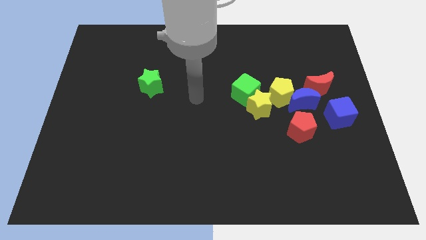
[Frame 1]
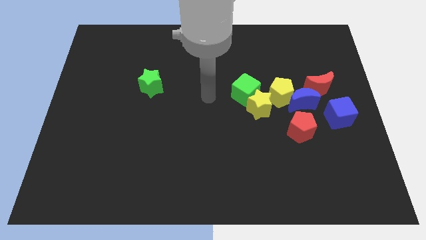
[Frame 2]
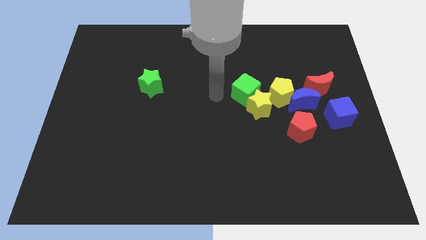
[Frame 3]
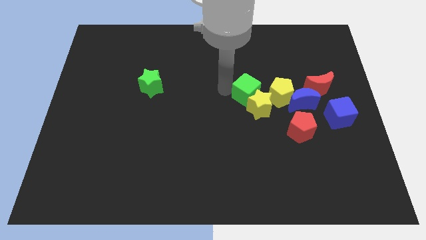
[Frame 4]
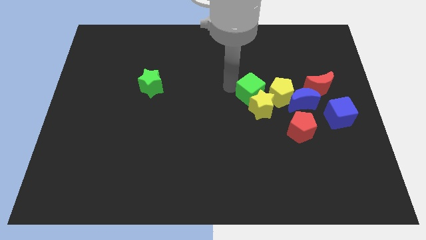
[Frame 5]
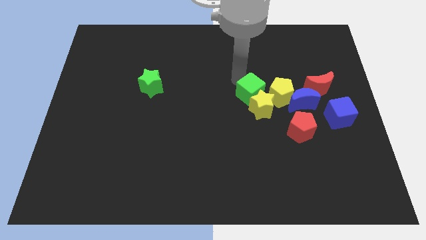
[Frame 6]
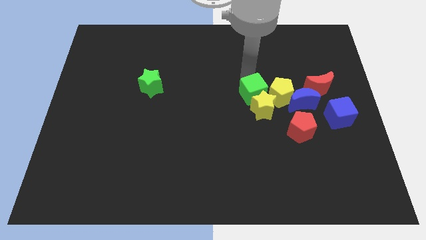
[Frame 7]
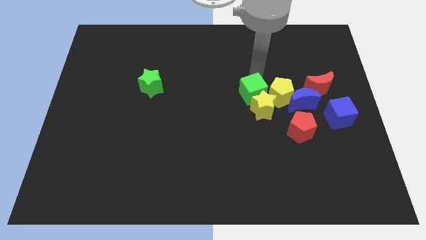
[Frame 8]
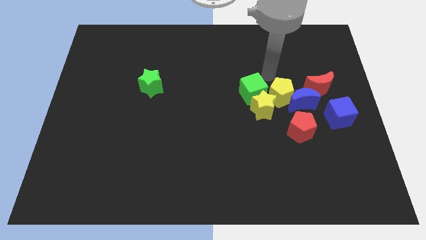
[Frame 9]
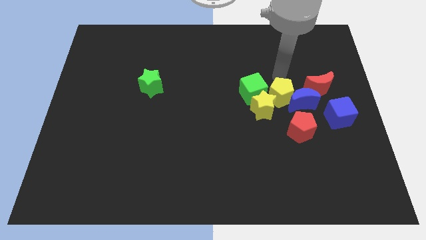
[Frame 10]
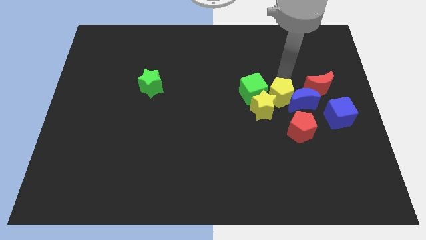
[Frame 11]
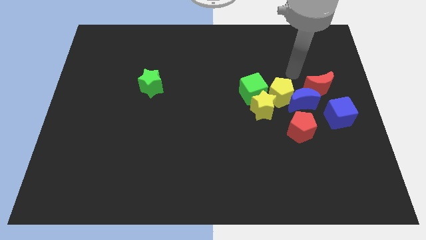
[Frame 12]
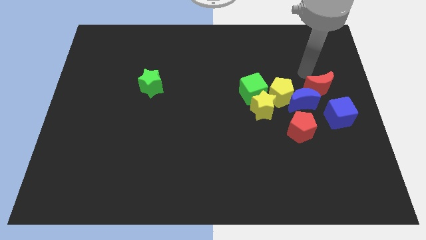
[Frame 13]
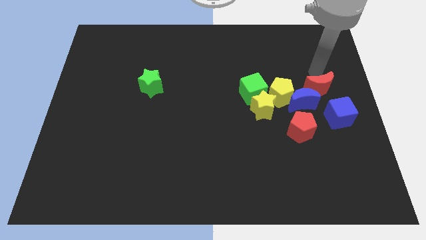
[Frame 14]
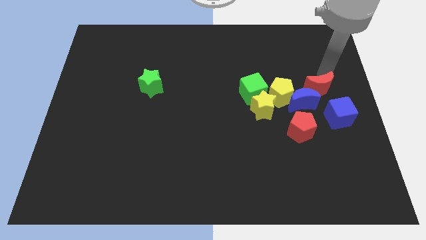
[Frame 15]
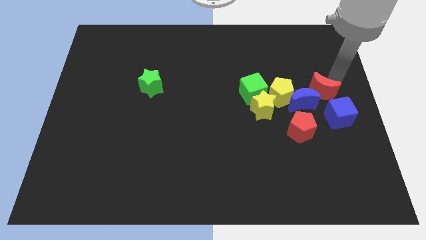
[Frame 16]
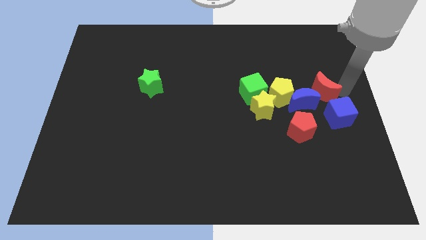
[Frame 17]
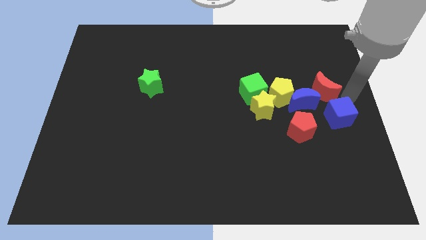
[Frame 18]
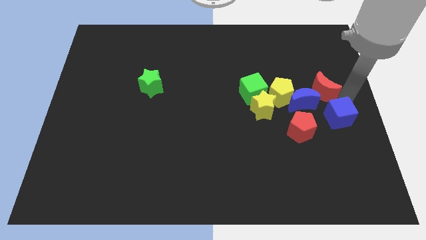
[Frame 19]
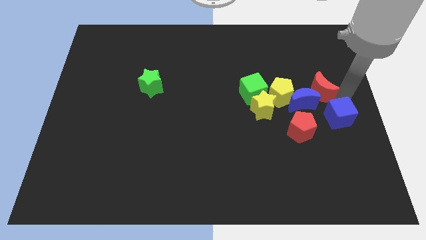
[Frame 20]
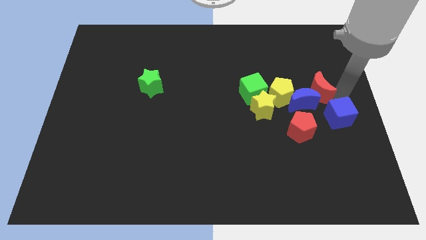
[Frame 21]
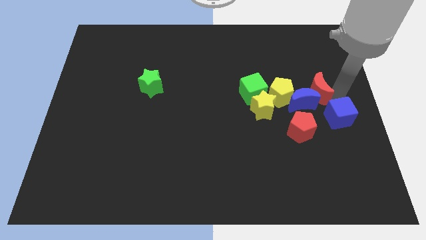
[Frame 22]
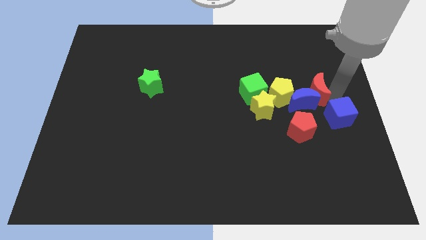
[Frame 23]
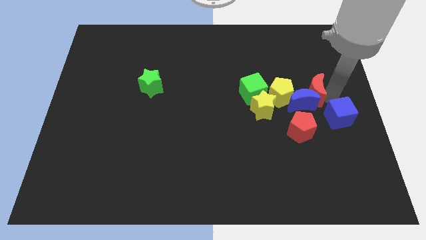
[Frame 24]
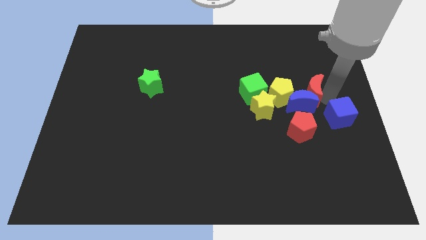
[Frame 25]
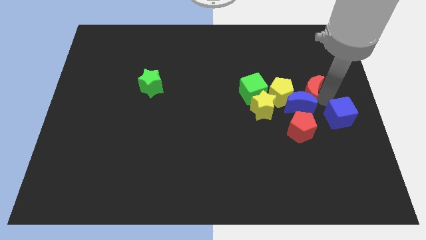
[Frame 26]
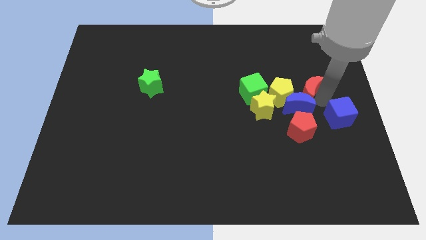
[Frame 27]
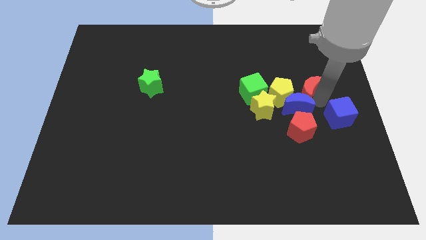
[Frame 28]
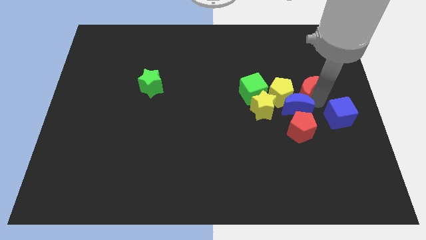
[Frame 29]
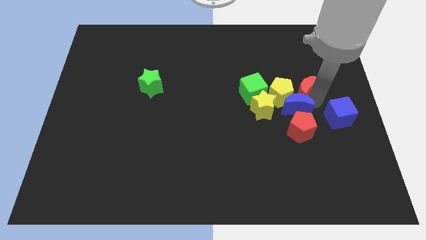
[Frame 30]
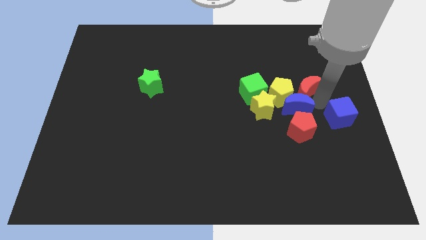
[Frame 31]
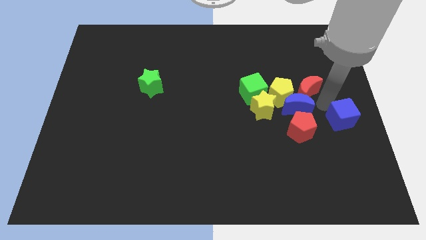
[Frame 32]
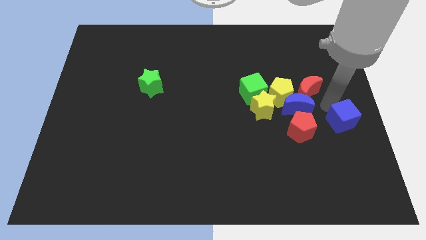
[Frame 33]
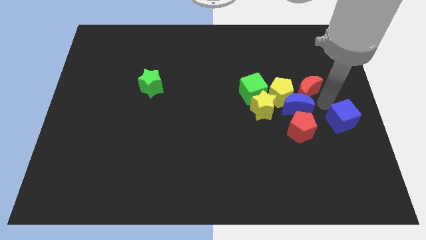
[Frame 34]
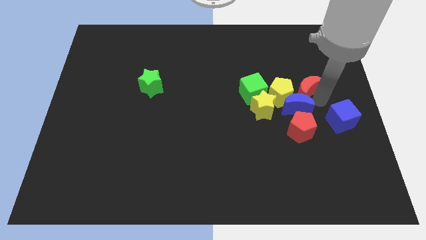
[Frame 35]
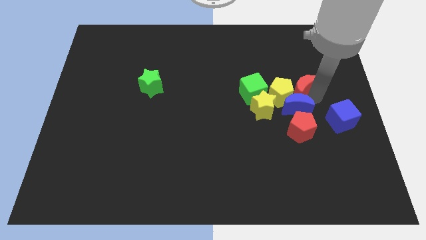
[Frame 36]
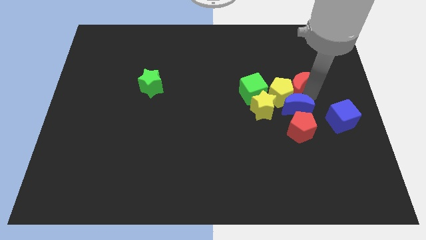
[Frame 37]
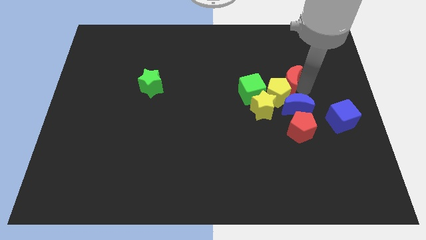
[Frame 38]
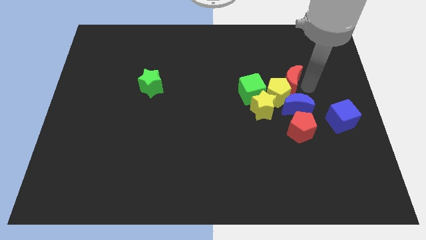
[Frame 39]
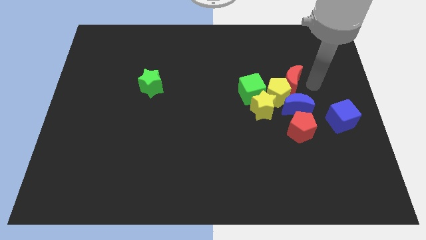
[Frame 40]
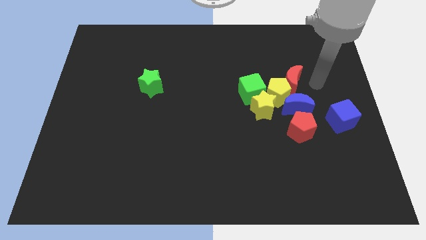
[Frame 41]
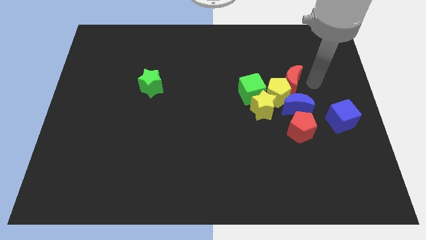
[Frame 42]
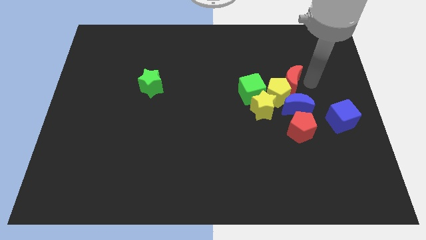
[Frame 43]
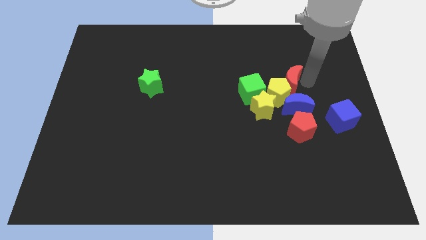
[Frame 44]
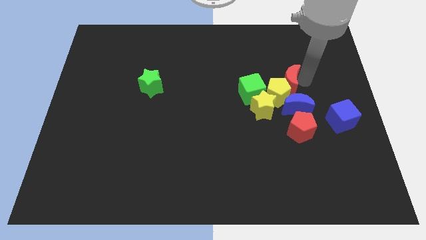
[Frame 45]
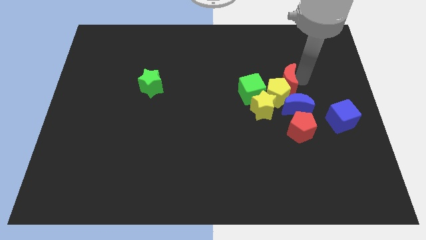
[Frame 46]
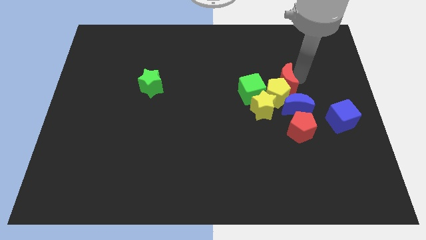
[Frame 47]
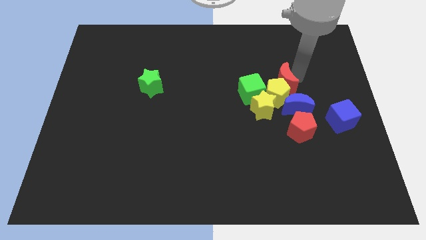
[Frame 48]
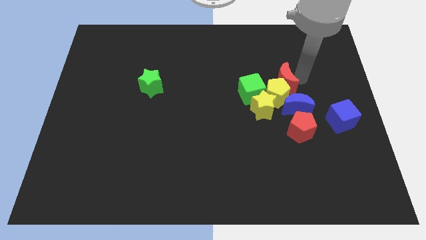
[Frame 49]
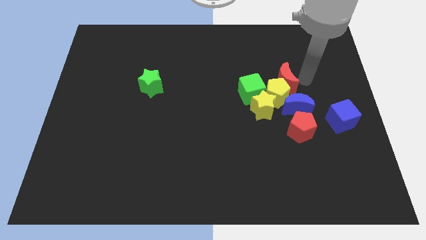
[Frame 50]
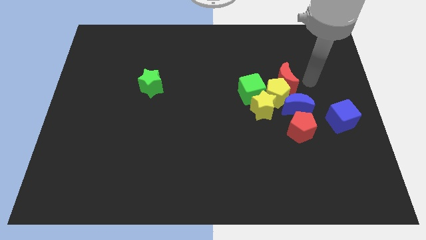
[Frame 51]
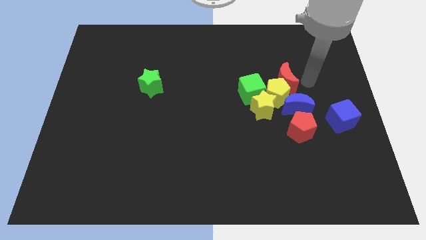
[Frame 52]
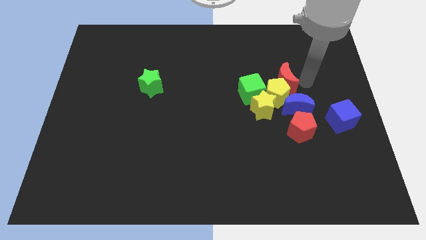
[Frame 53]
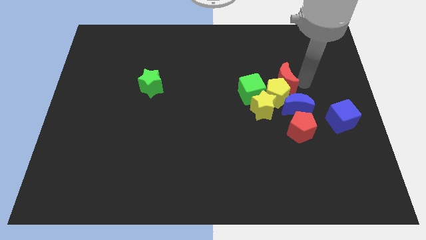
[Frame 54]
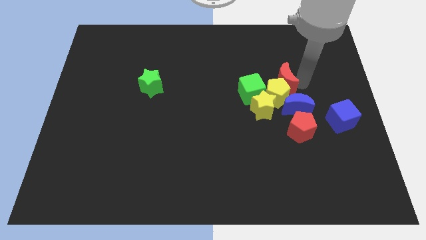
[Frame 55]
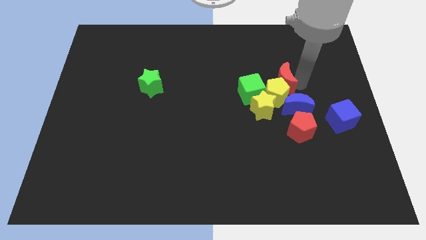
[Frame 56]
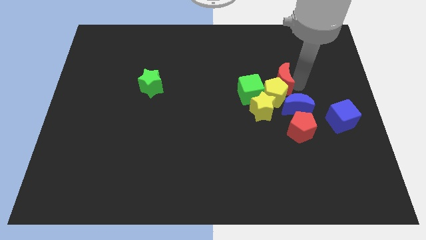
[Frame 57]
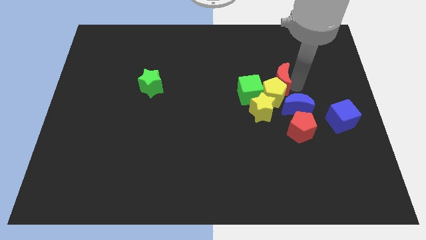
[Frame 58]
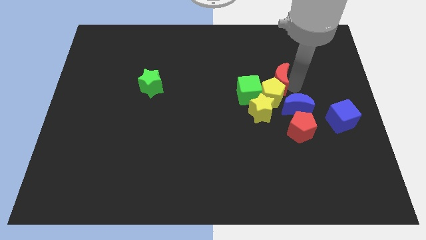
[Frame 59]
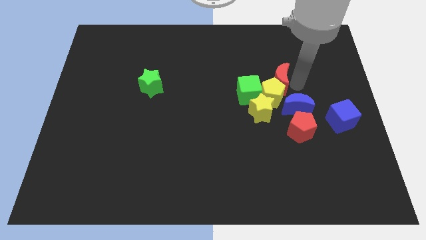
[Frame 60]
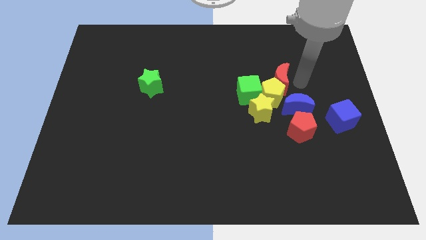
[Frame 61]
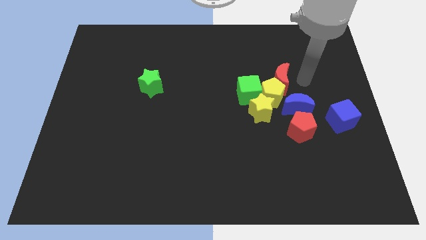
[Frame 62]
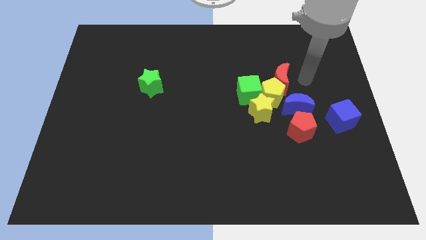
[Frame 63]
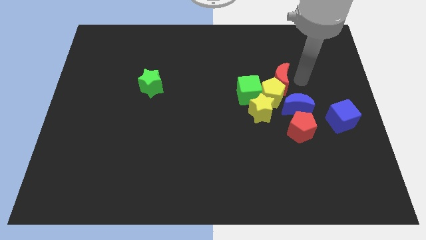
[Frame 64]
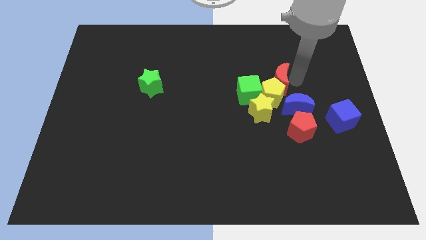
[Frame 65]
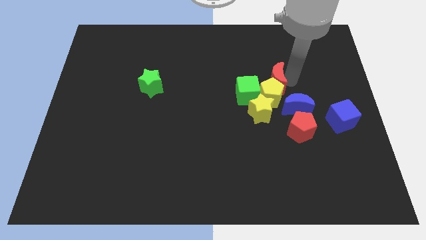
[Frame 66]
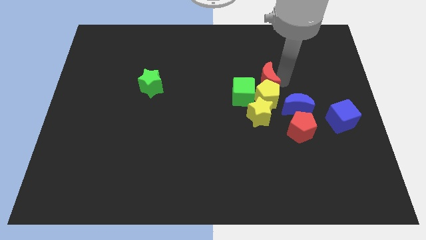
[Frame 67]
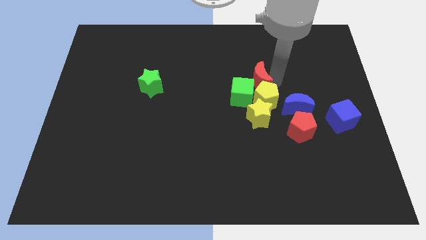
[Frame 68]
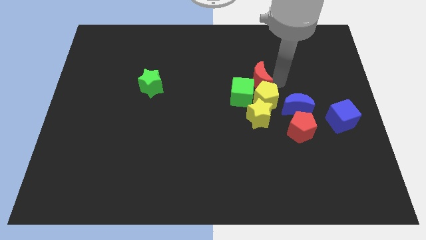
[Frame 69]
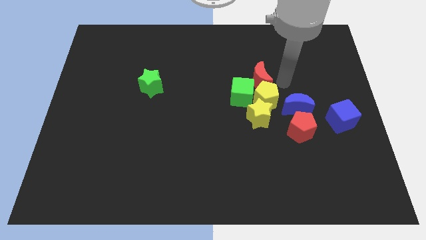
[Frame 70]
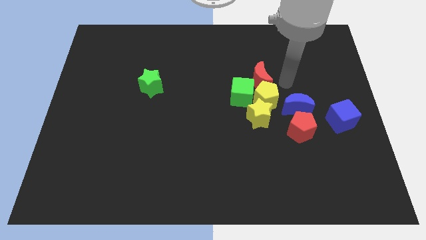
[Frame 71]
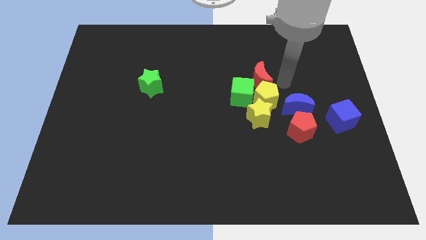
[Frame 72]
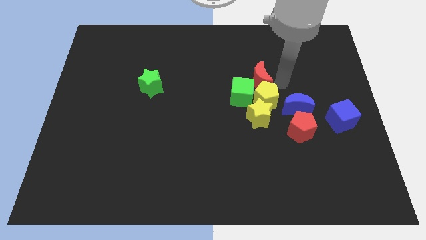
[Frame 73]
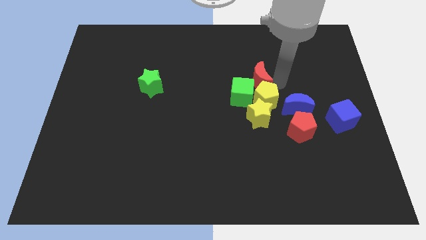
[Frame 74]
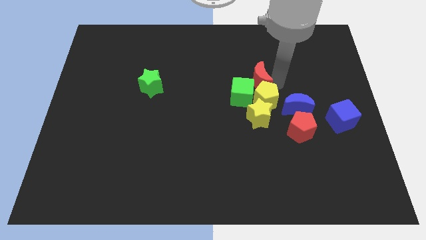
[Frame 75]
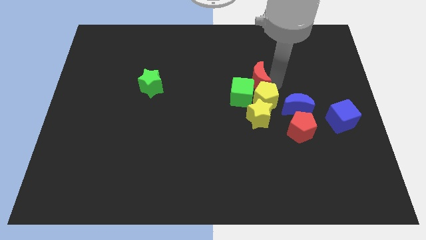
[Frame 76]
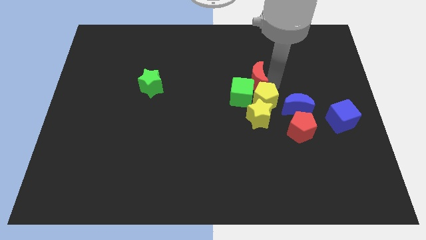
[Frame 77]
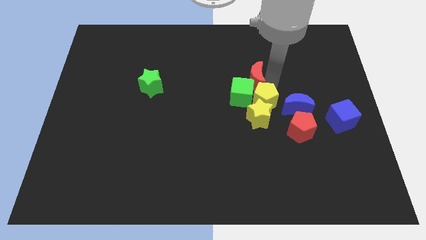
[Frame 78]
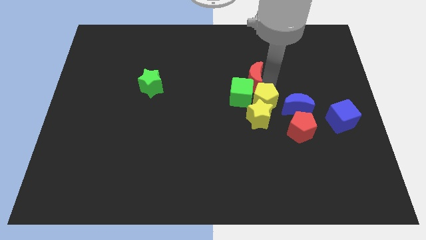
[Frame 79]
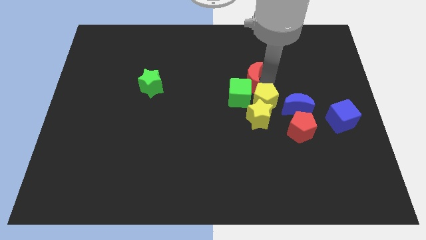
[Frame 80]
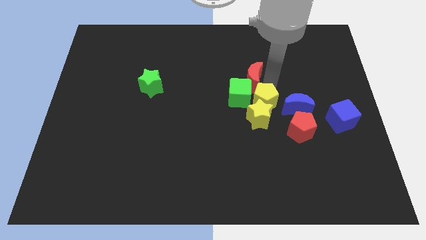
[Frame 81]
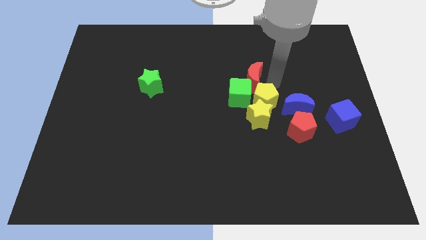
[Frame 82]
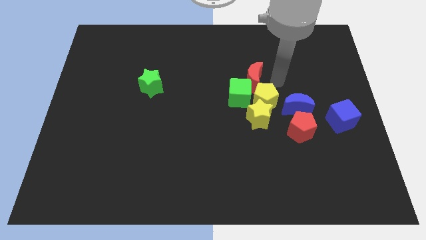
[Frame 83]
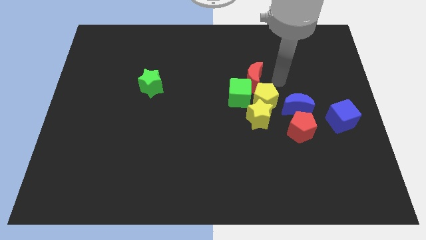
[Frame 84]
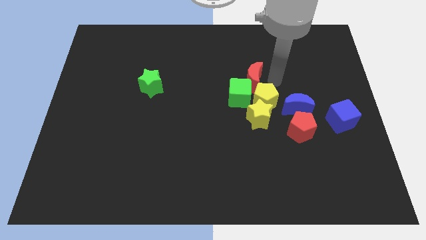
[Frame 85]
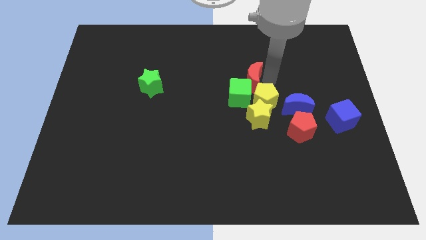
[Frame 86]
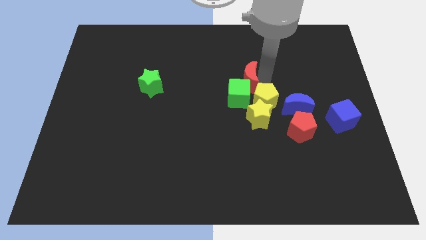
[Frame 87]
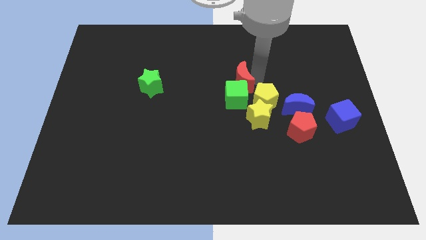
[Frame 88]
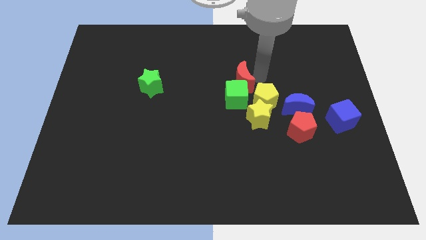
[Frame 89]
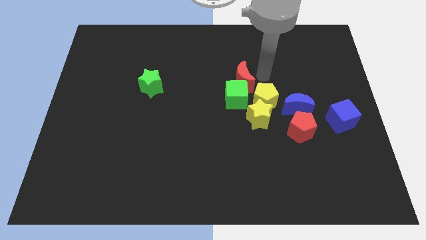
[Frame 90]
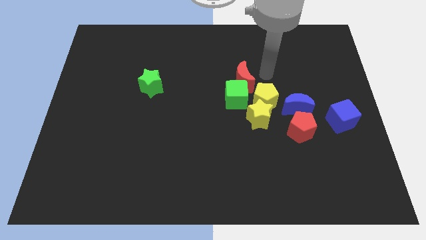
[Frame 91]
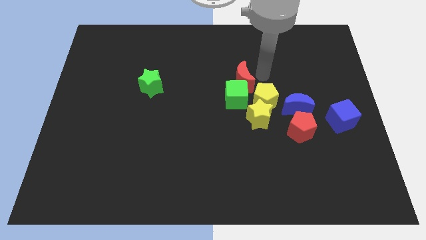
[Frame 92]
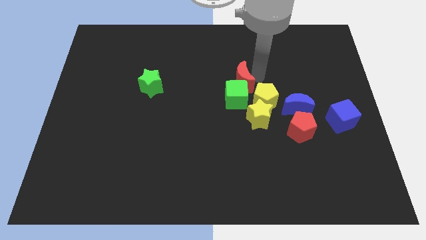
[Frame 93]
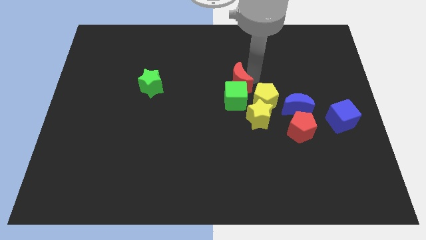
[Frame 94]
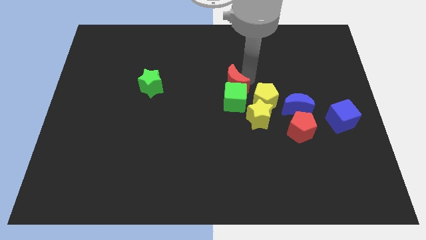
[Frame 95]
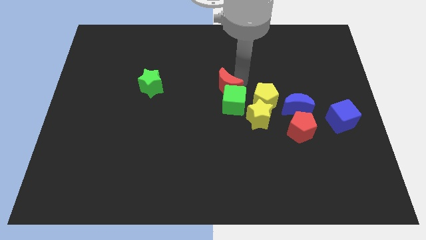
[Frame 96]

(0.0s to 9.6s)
put the red moon just left of the yellow pentagon
